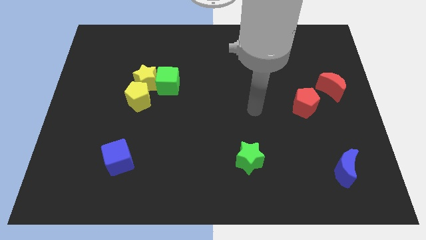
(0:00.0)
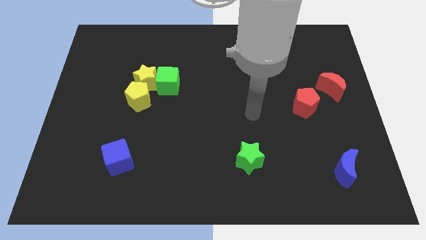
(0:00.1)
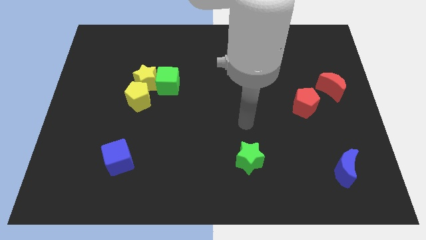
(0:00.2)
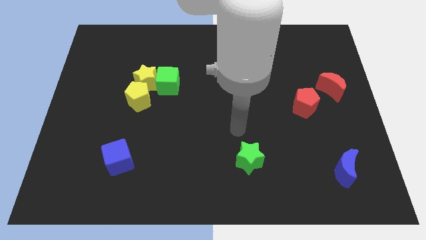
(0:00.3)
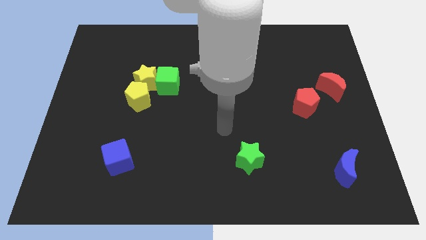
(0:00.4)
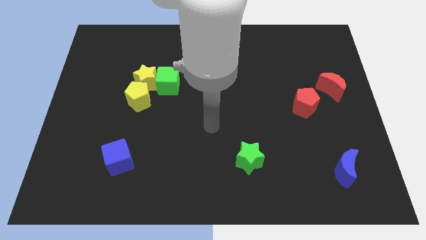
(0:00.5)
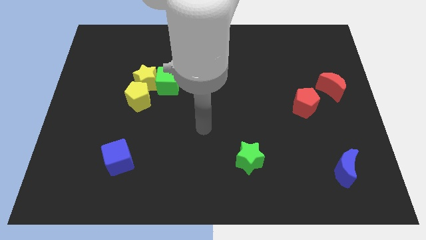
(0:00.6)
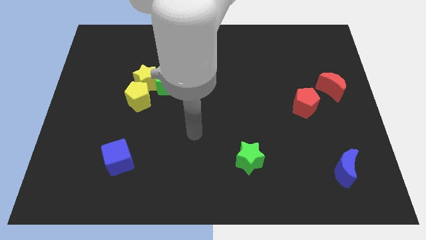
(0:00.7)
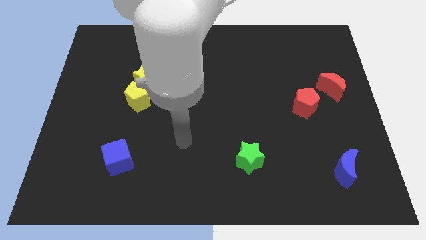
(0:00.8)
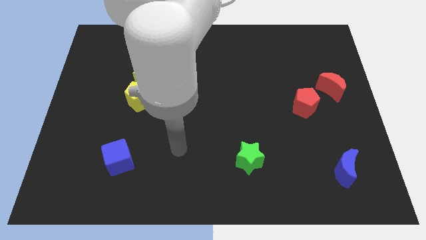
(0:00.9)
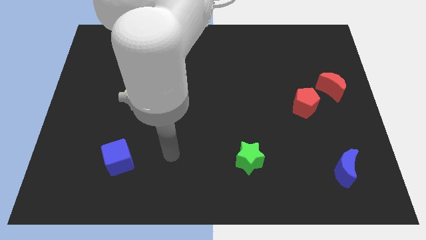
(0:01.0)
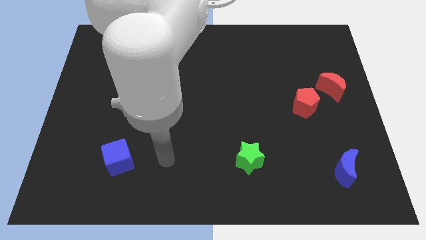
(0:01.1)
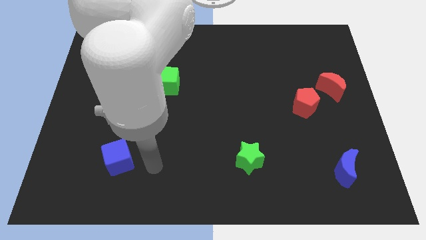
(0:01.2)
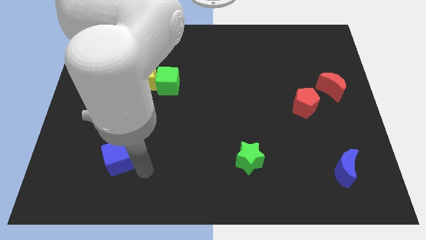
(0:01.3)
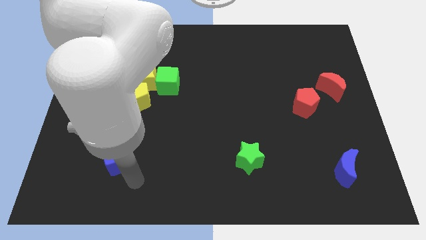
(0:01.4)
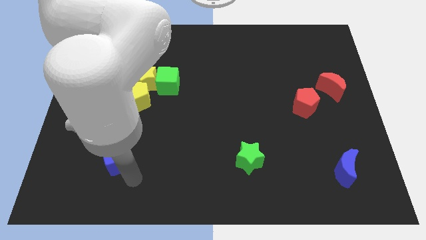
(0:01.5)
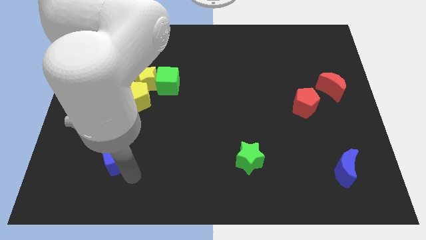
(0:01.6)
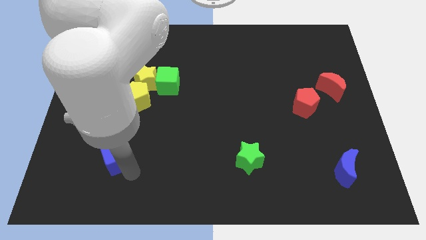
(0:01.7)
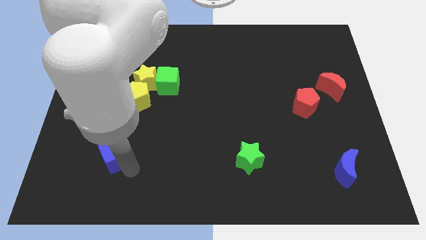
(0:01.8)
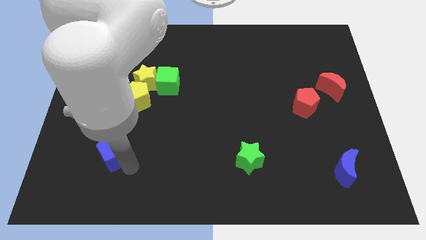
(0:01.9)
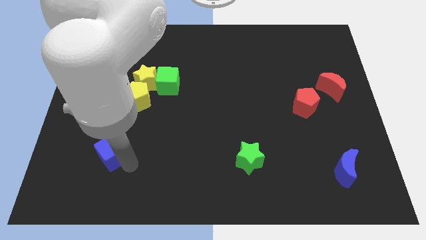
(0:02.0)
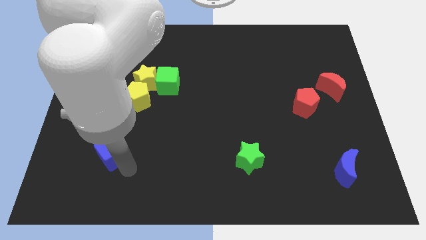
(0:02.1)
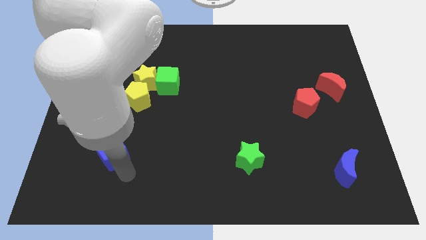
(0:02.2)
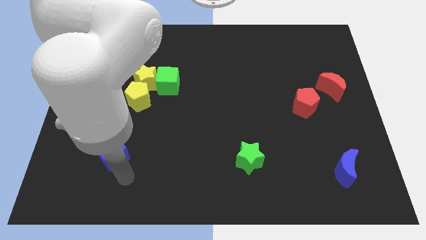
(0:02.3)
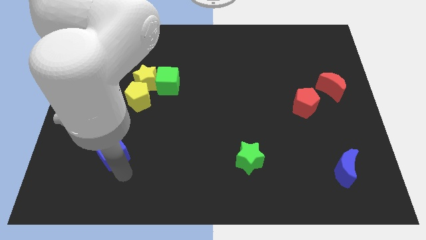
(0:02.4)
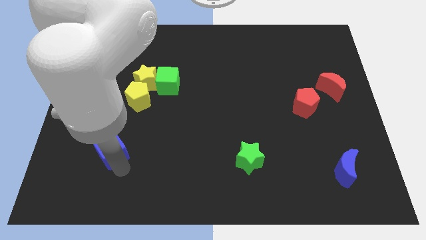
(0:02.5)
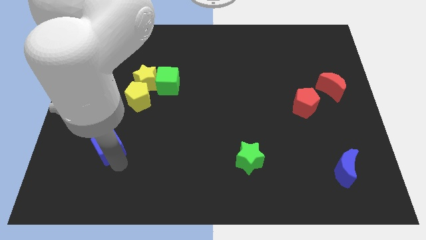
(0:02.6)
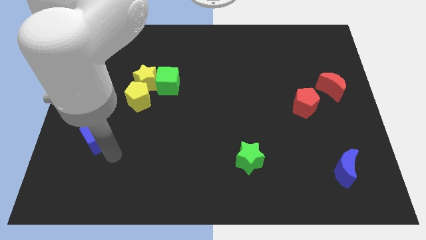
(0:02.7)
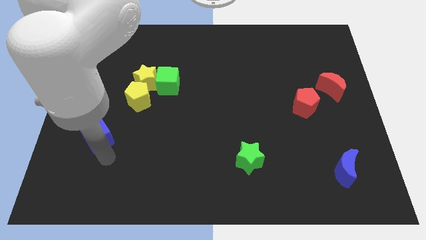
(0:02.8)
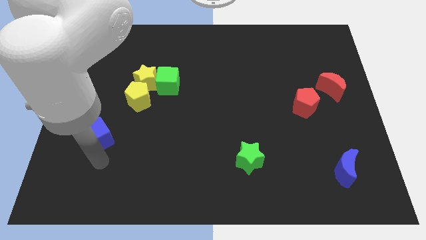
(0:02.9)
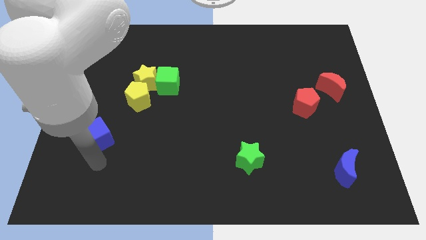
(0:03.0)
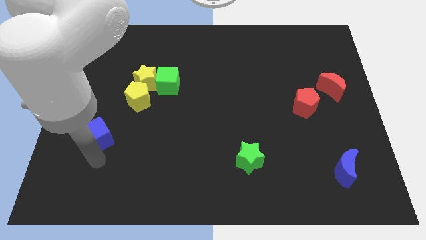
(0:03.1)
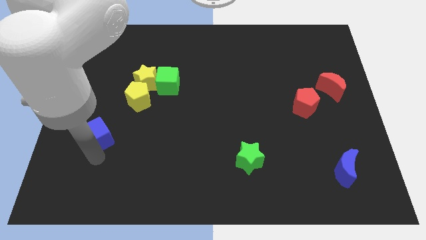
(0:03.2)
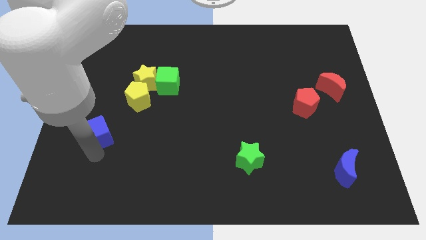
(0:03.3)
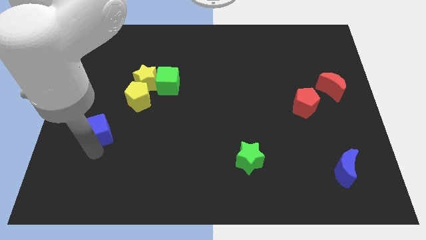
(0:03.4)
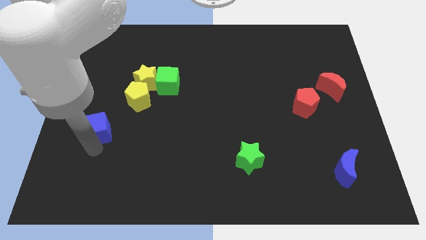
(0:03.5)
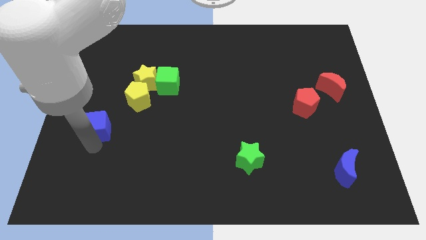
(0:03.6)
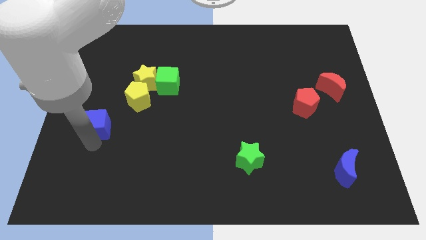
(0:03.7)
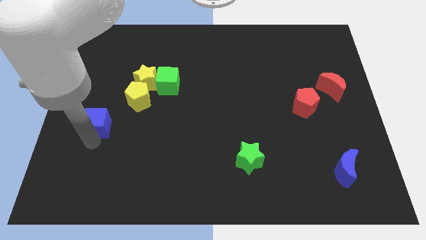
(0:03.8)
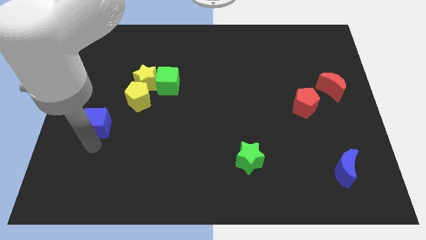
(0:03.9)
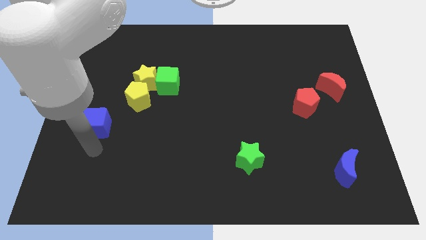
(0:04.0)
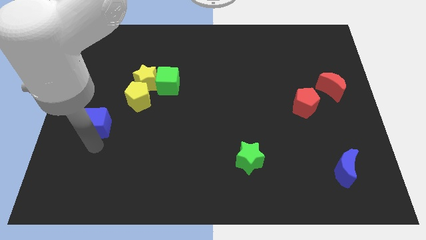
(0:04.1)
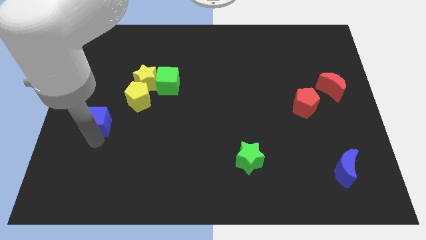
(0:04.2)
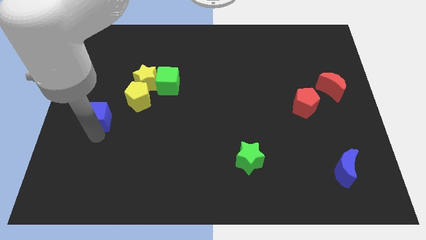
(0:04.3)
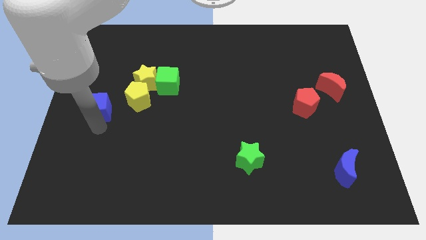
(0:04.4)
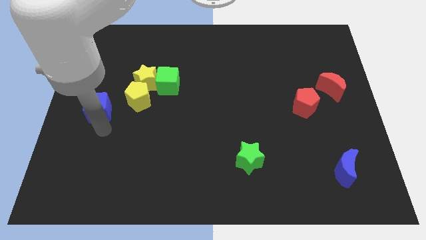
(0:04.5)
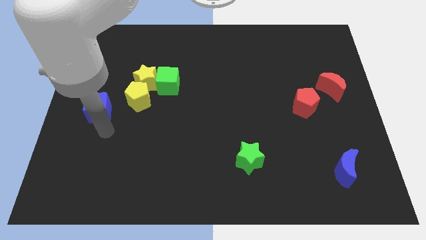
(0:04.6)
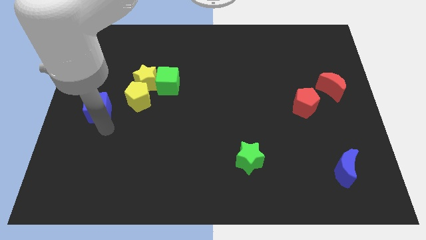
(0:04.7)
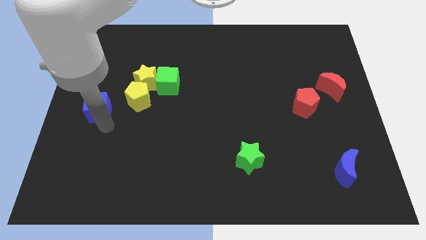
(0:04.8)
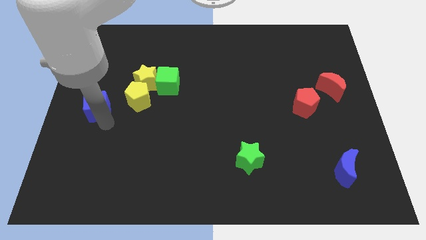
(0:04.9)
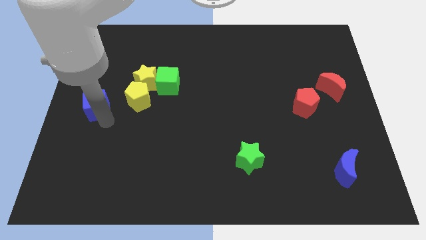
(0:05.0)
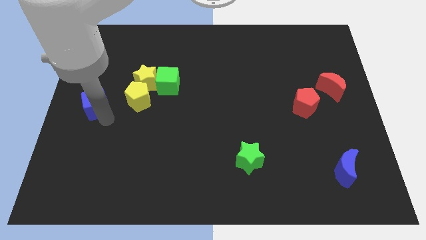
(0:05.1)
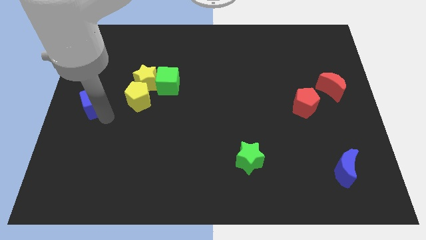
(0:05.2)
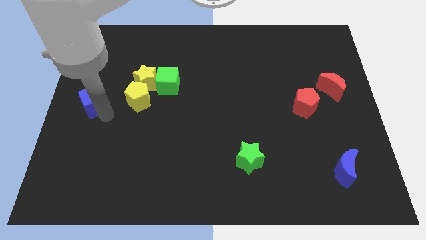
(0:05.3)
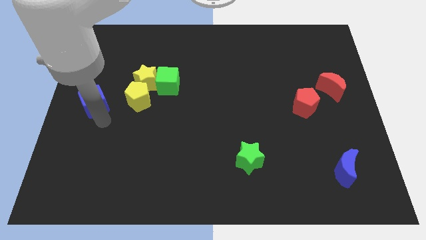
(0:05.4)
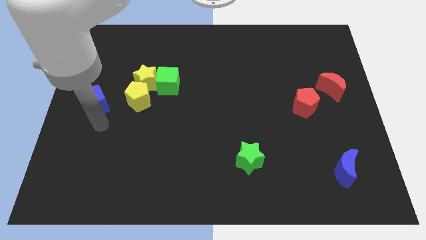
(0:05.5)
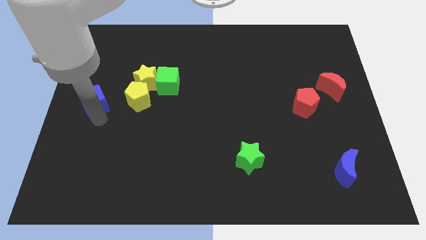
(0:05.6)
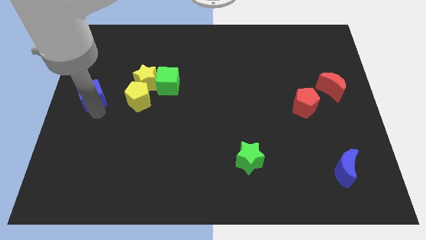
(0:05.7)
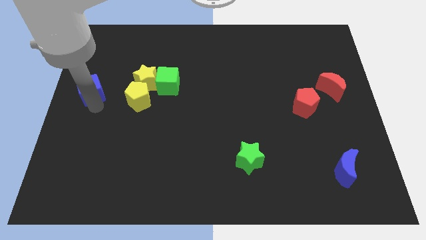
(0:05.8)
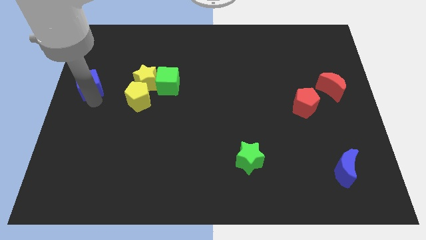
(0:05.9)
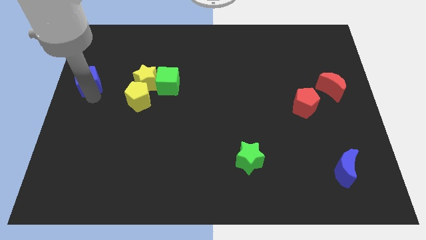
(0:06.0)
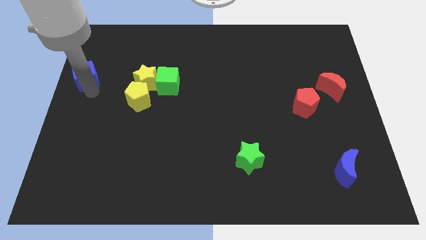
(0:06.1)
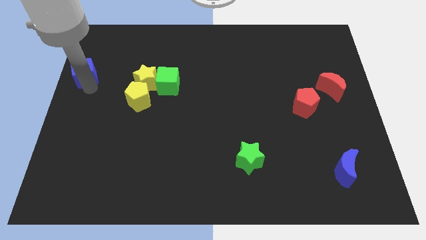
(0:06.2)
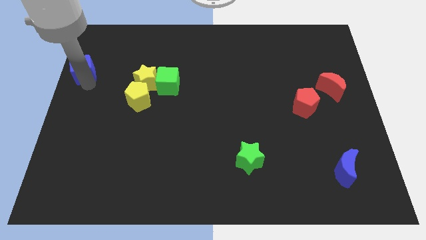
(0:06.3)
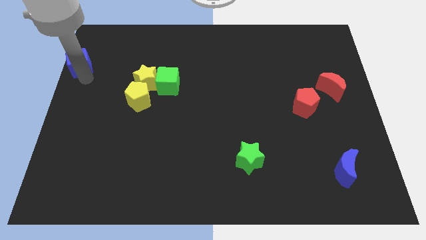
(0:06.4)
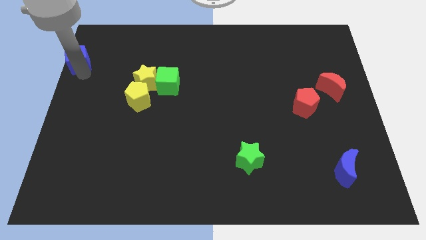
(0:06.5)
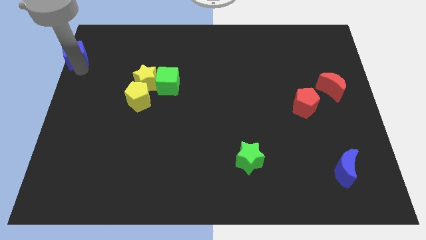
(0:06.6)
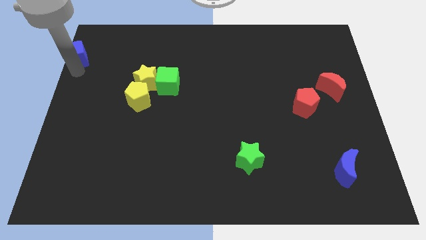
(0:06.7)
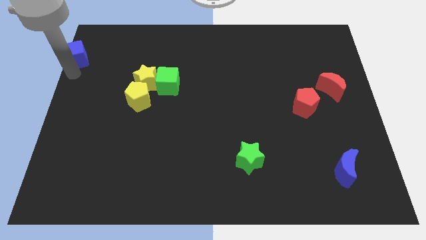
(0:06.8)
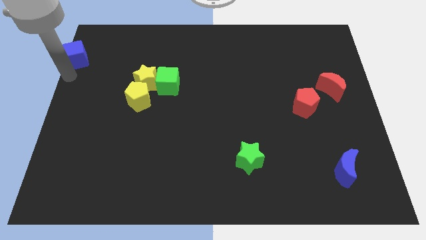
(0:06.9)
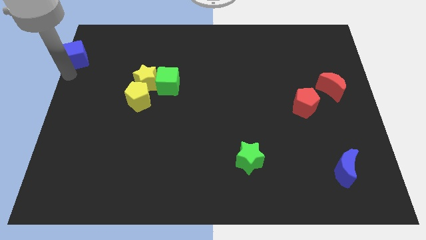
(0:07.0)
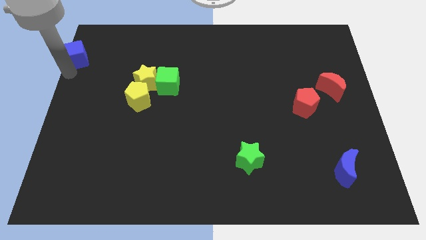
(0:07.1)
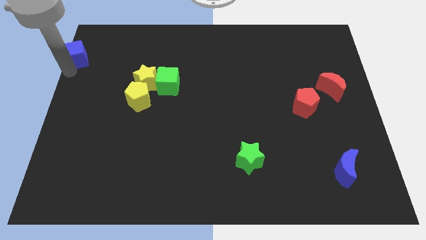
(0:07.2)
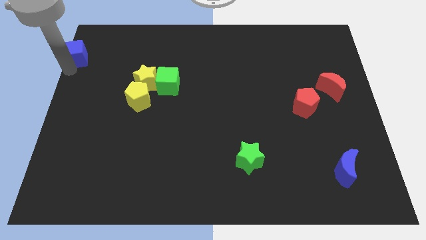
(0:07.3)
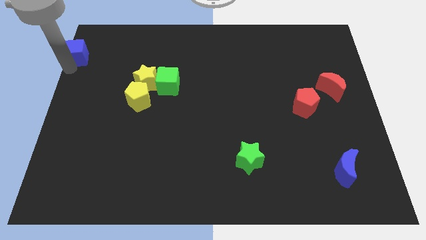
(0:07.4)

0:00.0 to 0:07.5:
put the blue cube to the upper left corner
